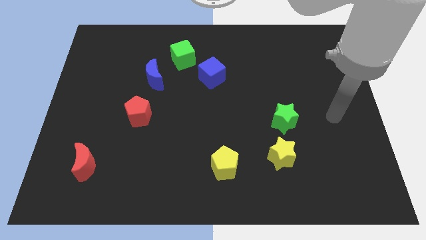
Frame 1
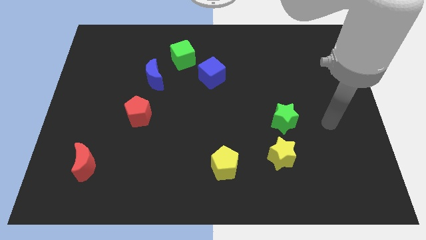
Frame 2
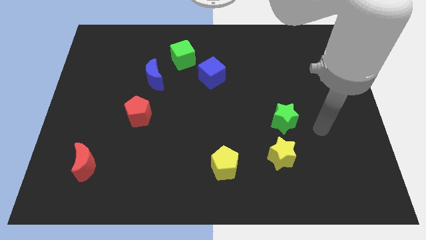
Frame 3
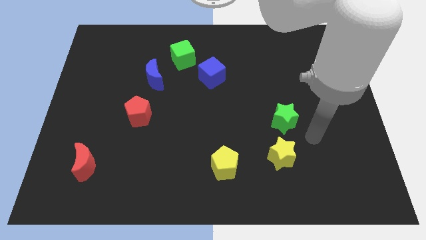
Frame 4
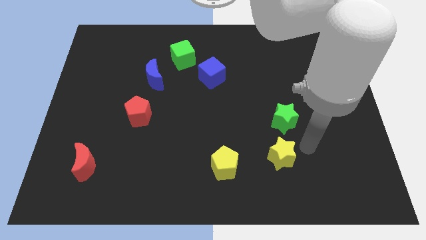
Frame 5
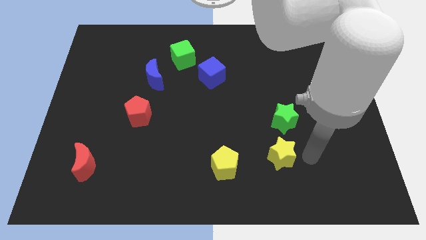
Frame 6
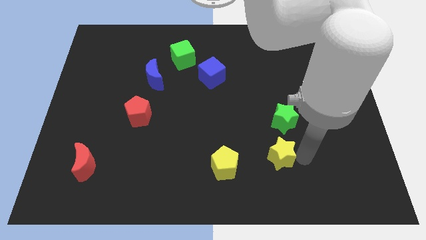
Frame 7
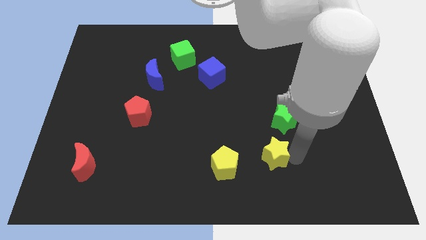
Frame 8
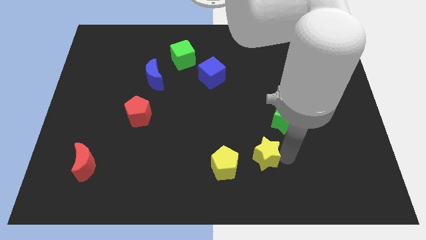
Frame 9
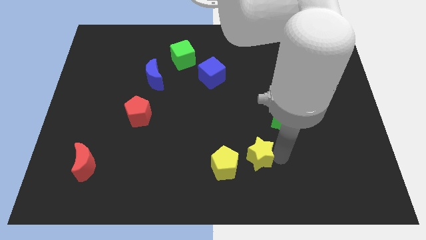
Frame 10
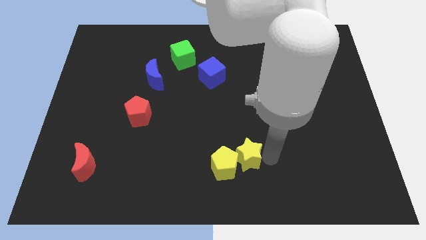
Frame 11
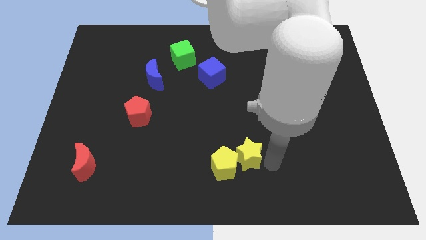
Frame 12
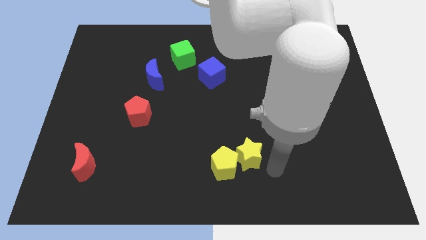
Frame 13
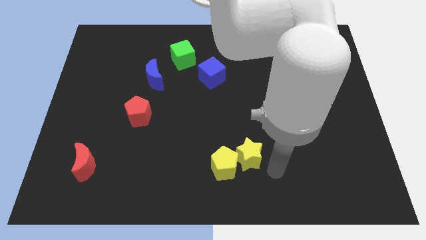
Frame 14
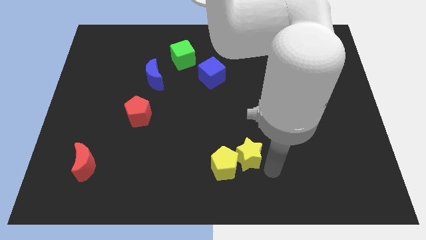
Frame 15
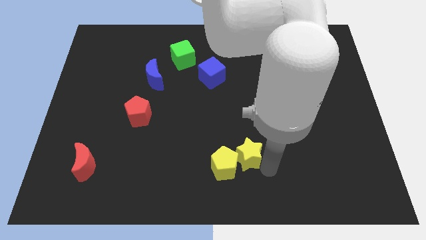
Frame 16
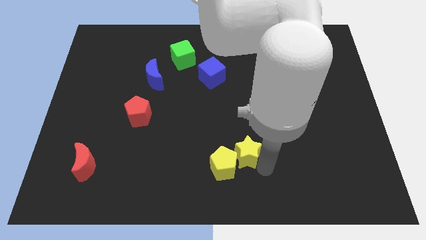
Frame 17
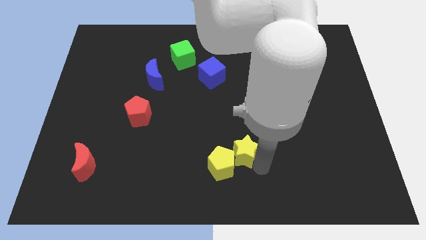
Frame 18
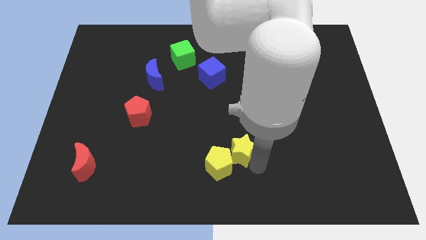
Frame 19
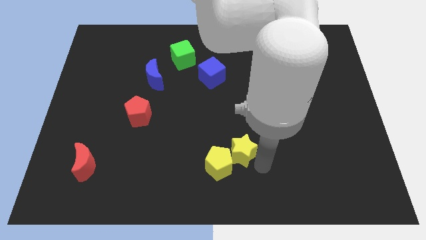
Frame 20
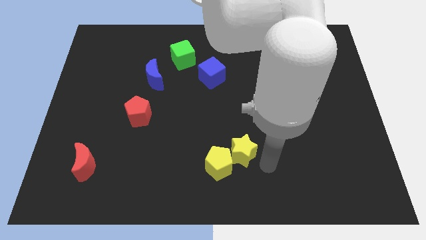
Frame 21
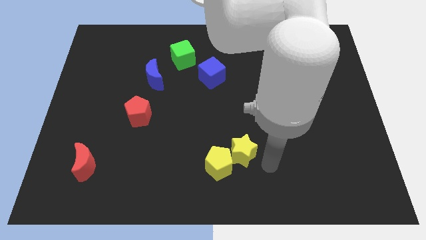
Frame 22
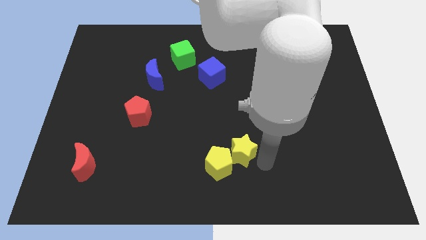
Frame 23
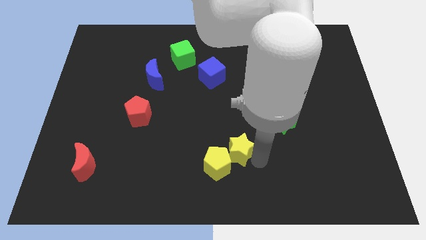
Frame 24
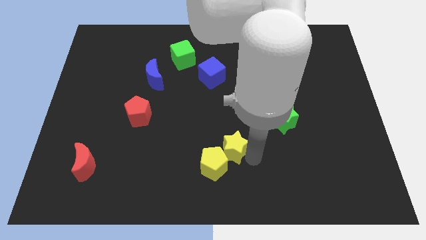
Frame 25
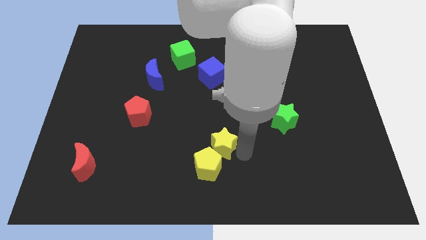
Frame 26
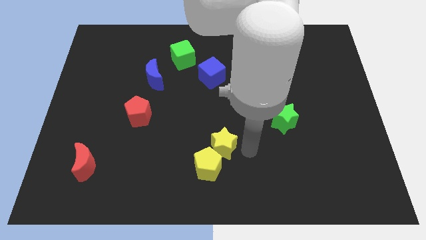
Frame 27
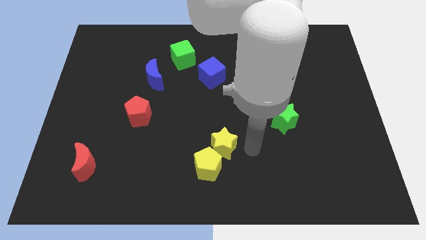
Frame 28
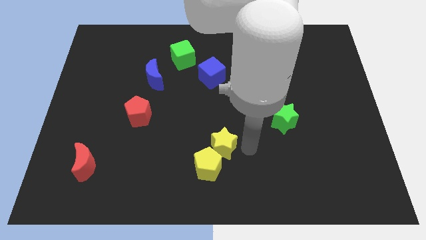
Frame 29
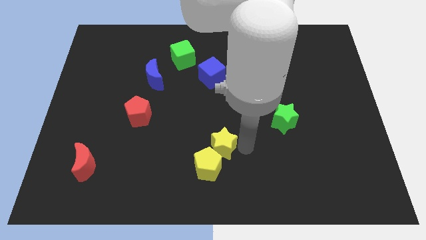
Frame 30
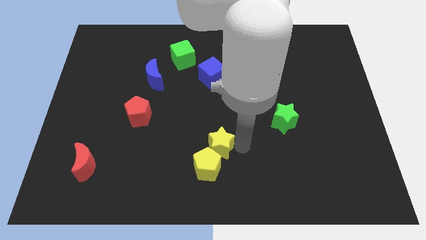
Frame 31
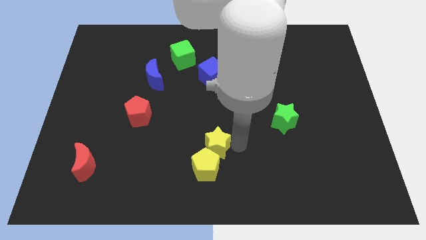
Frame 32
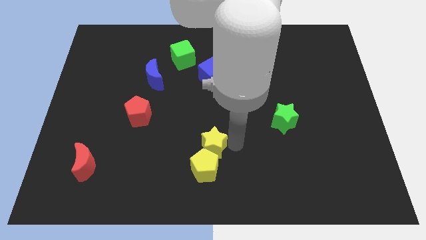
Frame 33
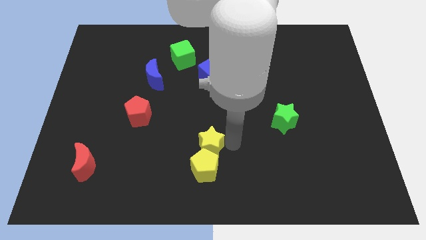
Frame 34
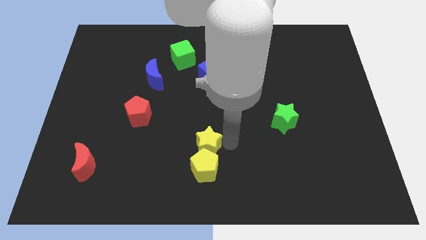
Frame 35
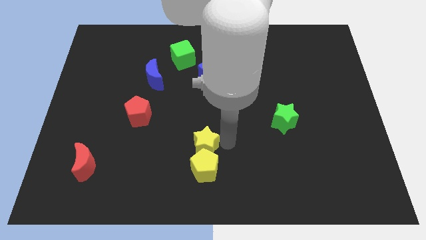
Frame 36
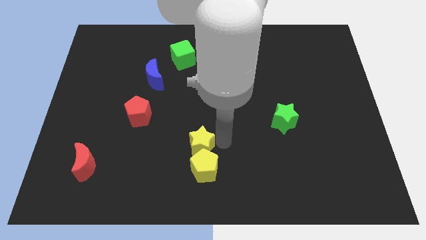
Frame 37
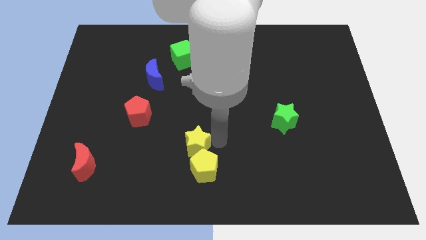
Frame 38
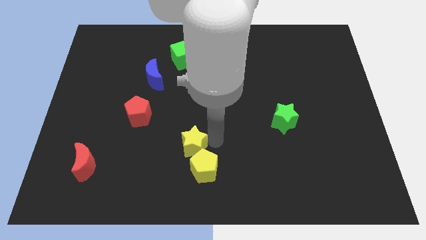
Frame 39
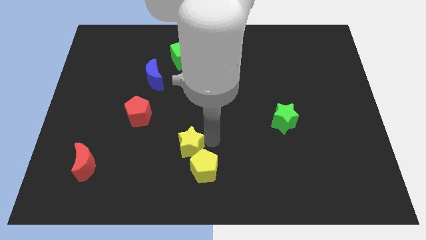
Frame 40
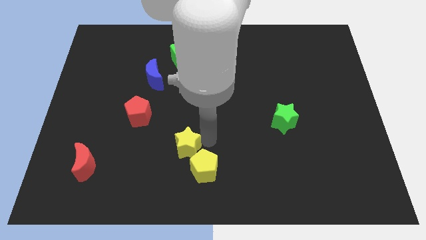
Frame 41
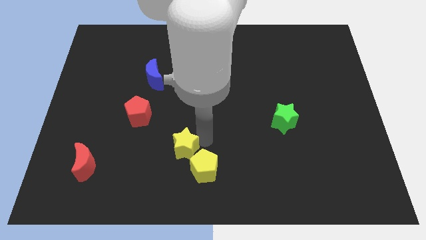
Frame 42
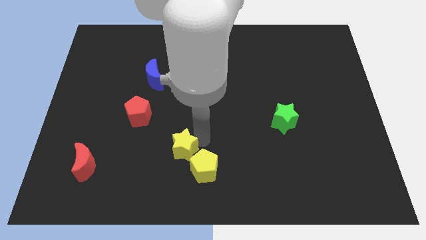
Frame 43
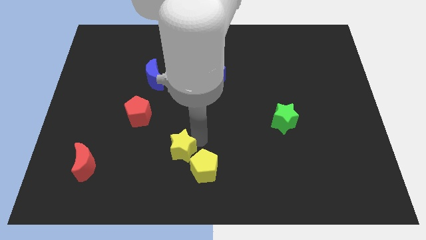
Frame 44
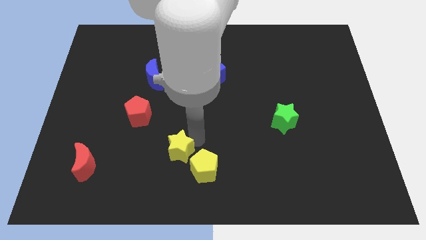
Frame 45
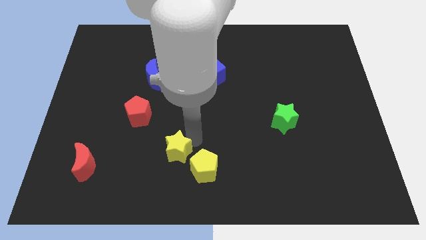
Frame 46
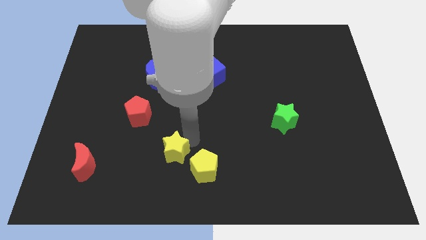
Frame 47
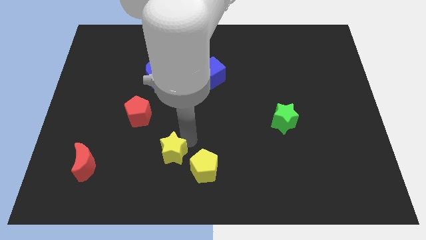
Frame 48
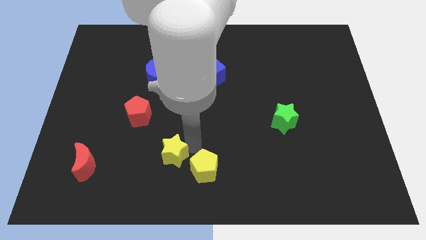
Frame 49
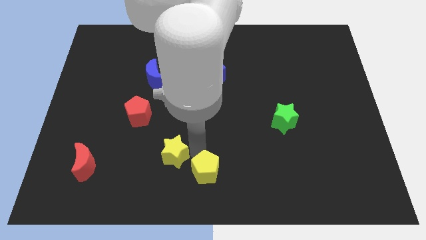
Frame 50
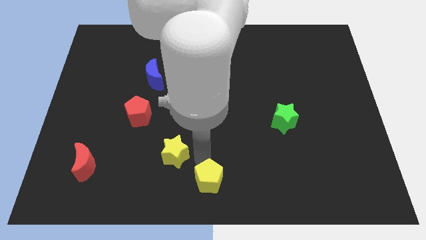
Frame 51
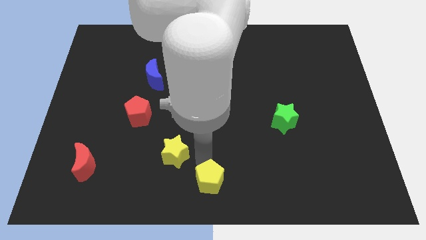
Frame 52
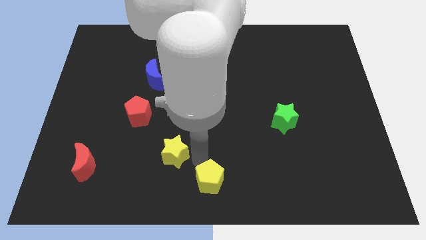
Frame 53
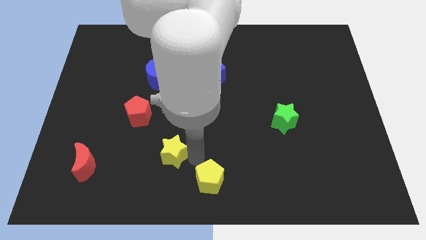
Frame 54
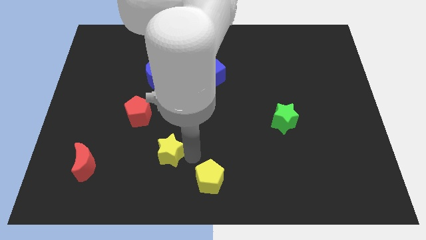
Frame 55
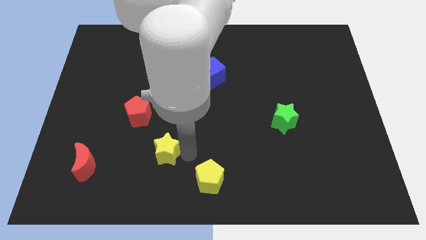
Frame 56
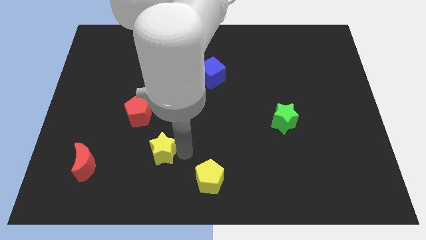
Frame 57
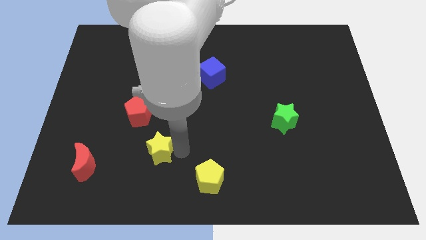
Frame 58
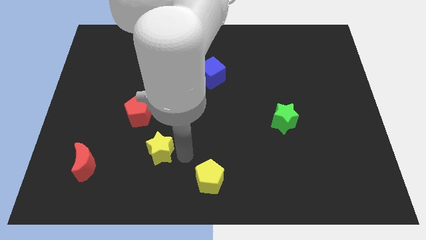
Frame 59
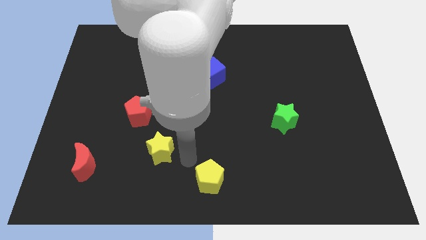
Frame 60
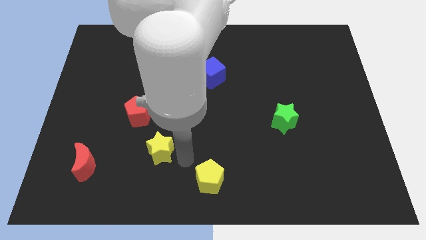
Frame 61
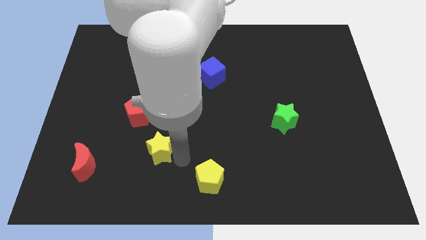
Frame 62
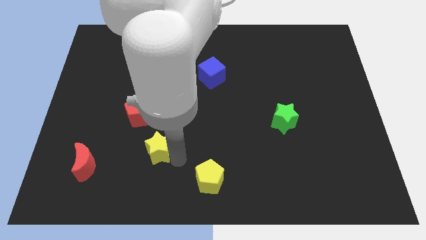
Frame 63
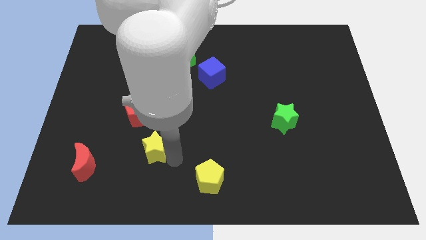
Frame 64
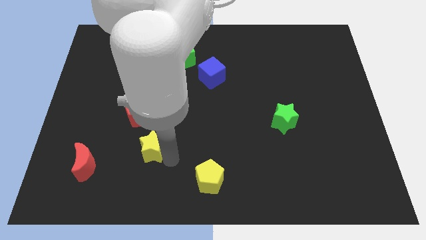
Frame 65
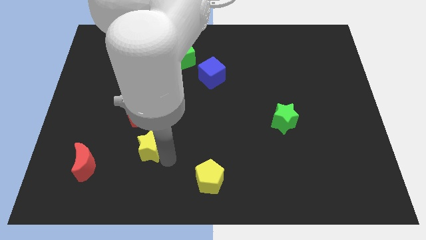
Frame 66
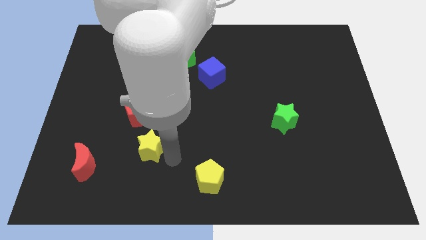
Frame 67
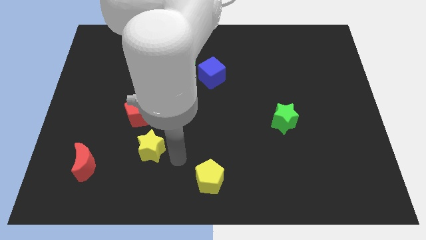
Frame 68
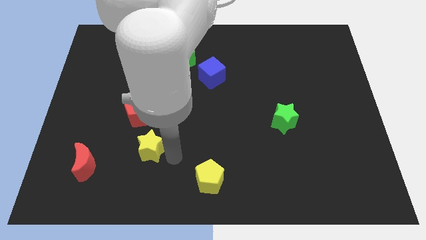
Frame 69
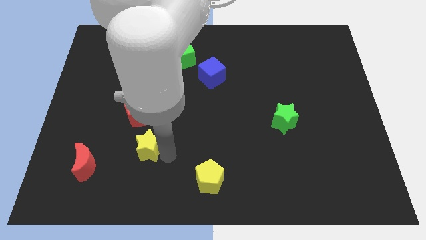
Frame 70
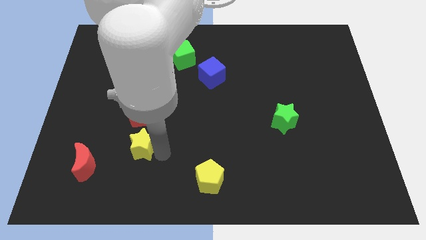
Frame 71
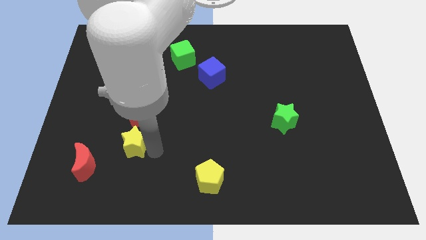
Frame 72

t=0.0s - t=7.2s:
put the yellow star to the top right of the red moon

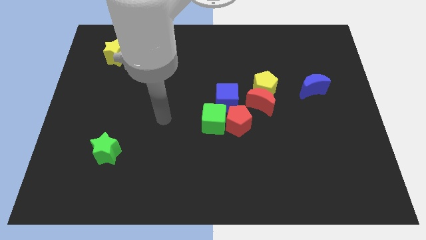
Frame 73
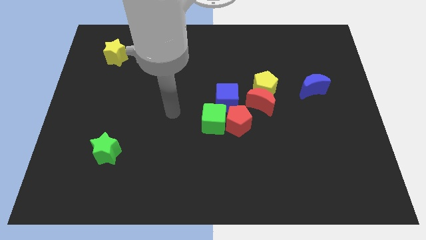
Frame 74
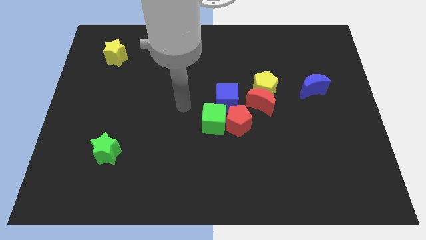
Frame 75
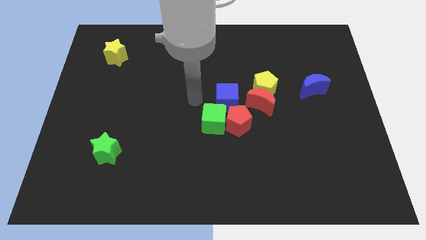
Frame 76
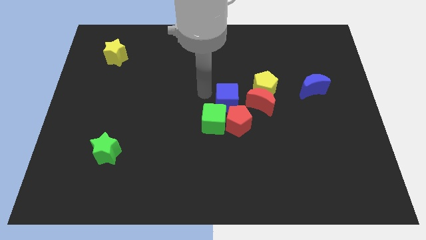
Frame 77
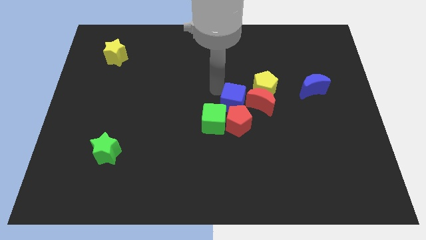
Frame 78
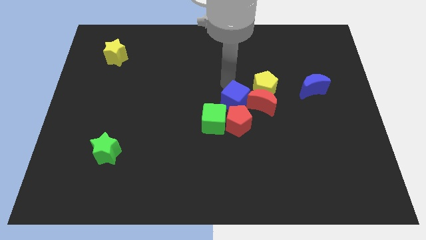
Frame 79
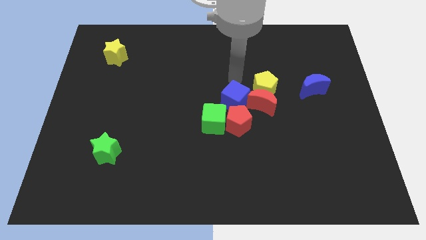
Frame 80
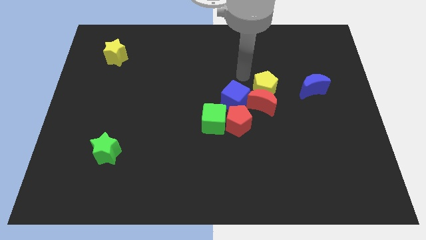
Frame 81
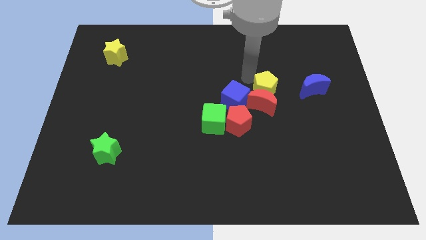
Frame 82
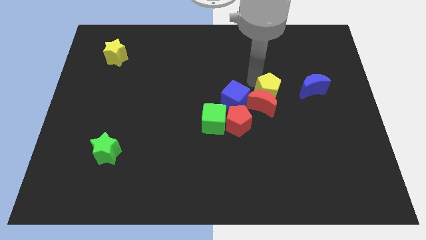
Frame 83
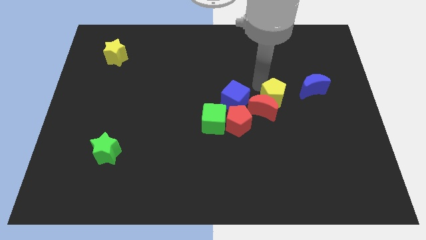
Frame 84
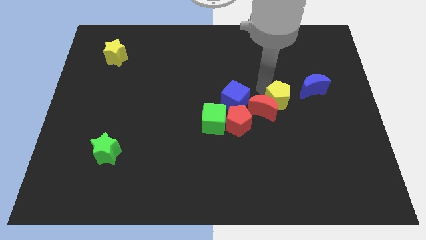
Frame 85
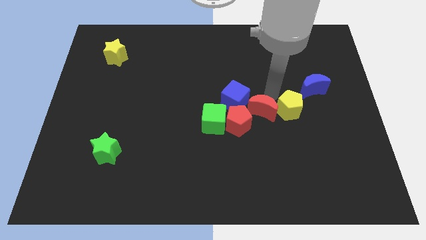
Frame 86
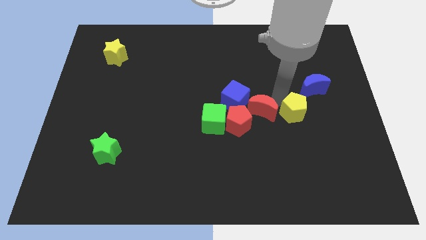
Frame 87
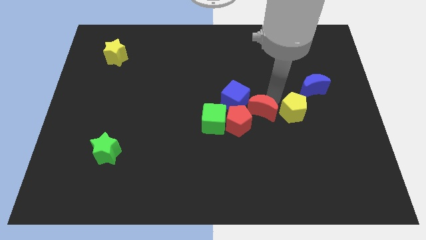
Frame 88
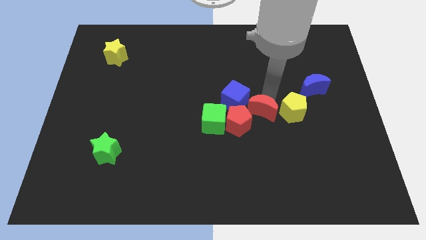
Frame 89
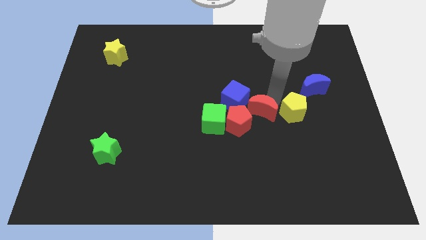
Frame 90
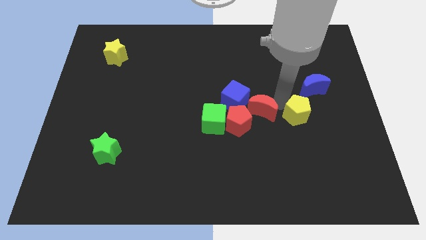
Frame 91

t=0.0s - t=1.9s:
push the yellow pentagon to the bottom side of the blue moon
